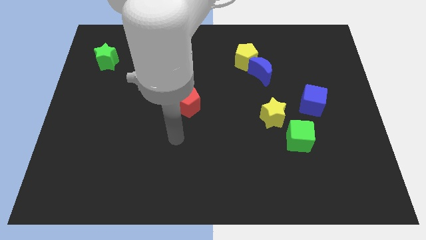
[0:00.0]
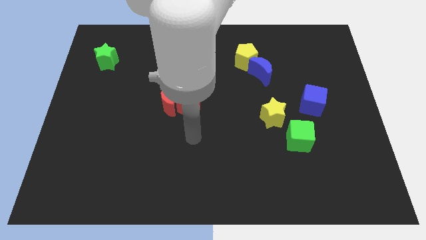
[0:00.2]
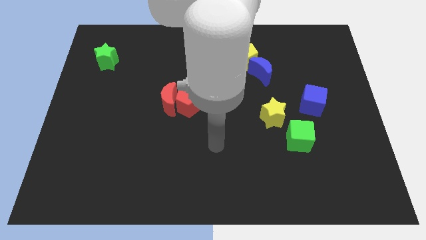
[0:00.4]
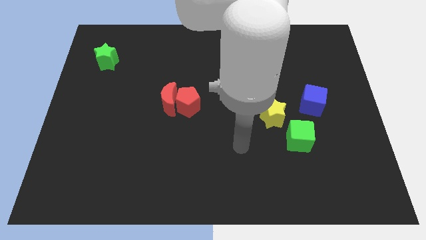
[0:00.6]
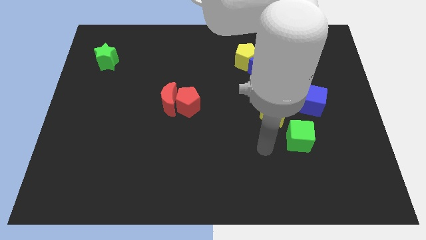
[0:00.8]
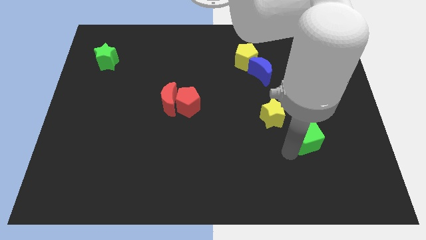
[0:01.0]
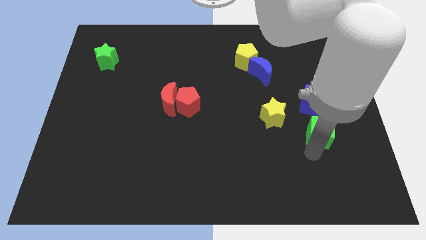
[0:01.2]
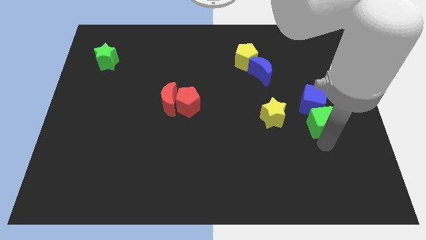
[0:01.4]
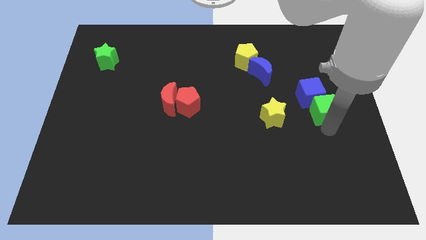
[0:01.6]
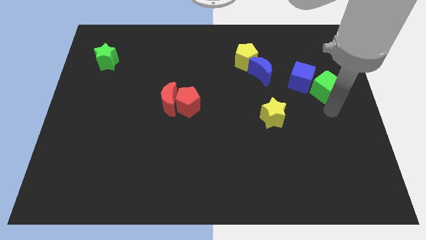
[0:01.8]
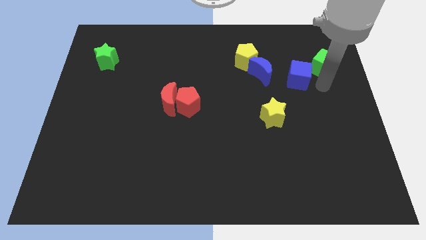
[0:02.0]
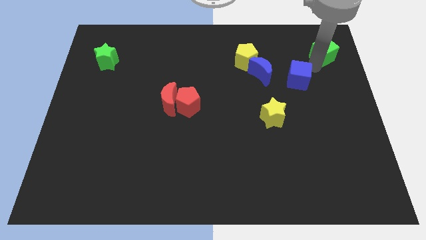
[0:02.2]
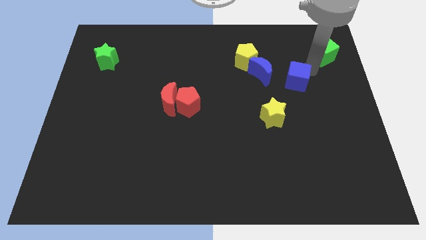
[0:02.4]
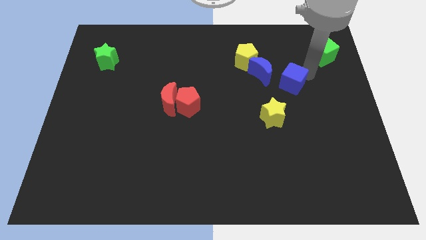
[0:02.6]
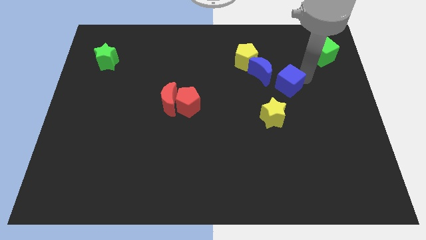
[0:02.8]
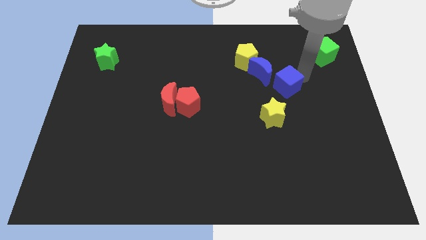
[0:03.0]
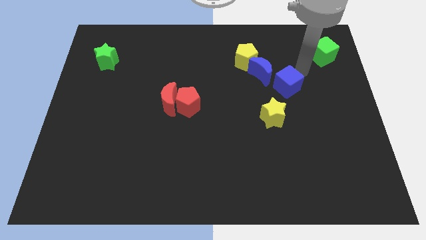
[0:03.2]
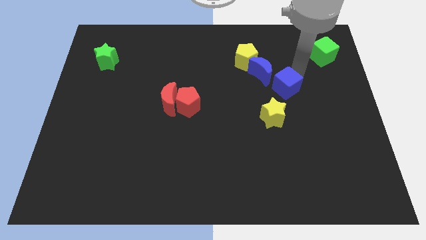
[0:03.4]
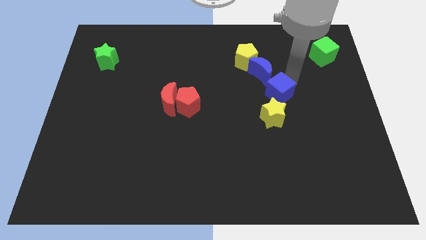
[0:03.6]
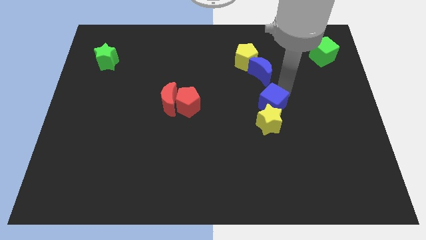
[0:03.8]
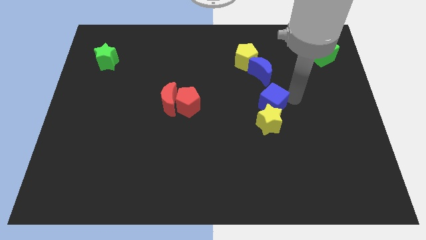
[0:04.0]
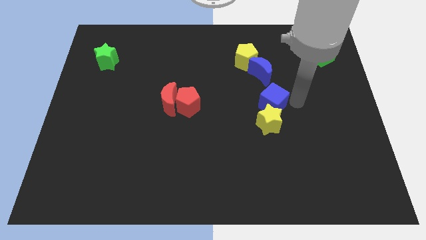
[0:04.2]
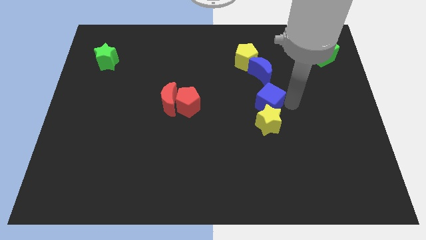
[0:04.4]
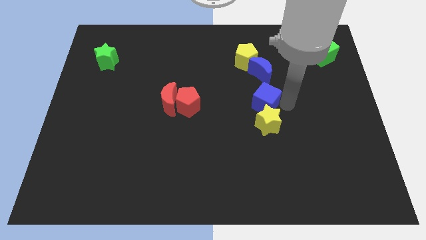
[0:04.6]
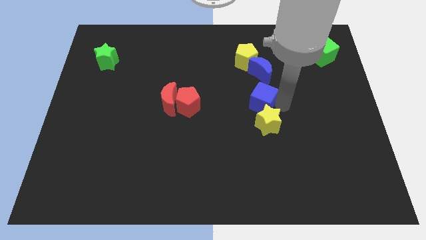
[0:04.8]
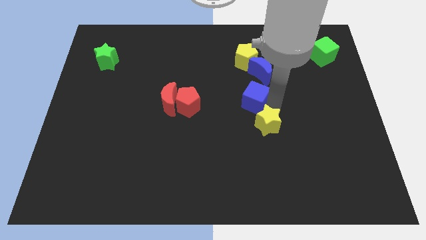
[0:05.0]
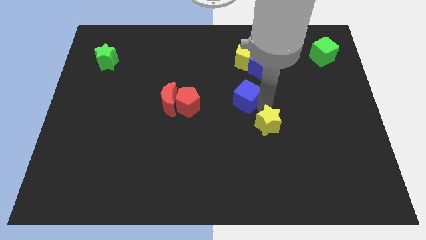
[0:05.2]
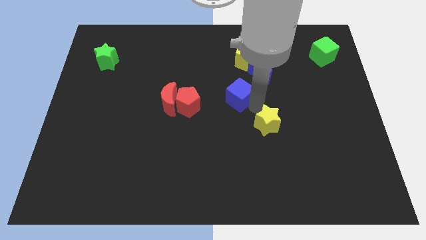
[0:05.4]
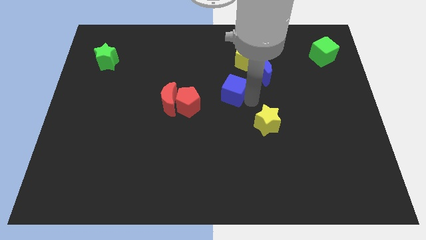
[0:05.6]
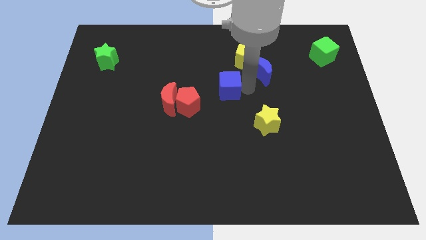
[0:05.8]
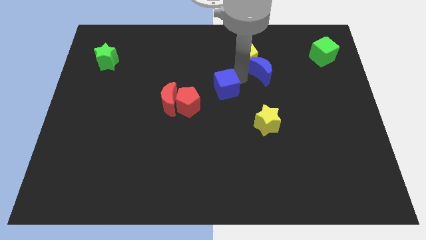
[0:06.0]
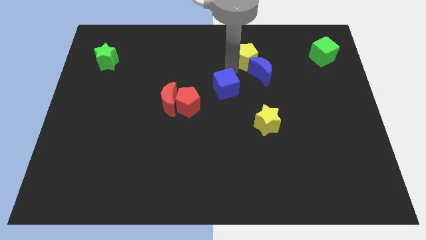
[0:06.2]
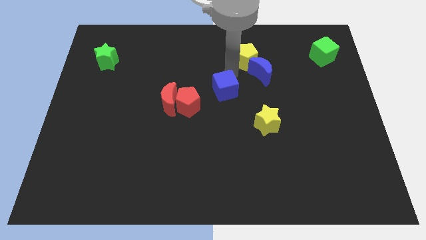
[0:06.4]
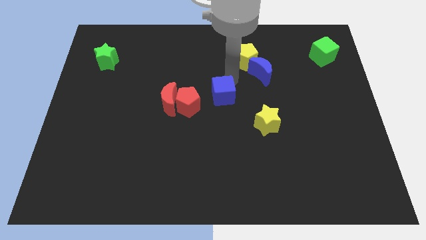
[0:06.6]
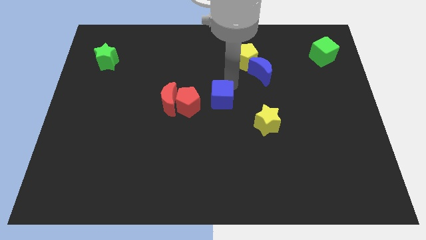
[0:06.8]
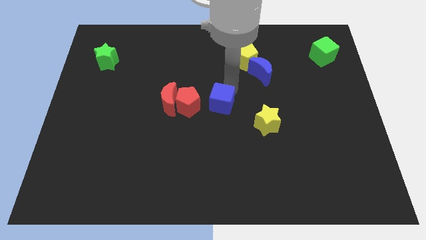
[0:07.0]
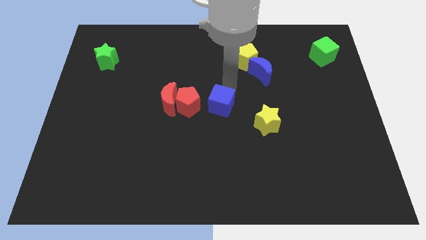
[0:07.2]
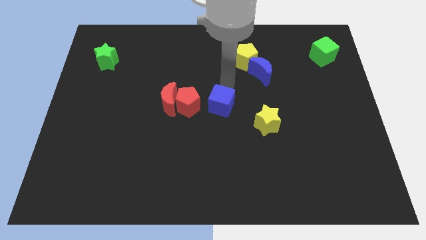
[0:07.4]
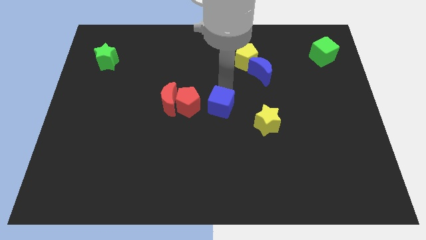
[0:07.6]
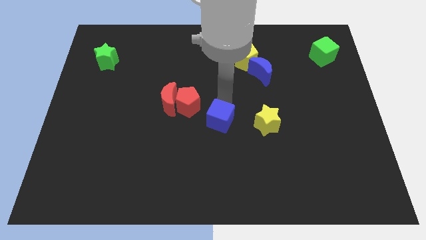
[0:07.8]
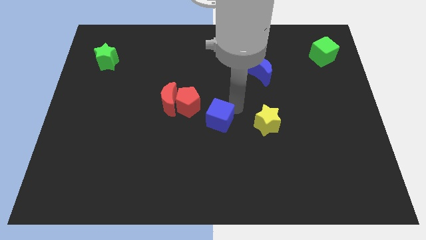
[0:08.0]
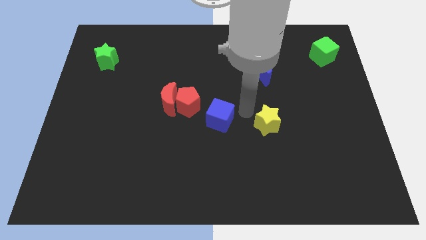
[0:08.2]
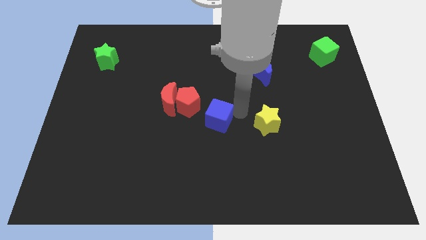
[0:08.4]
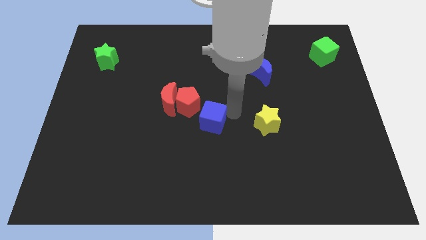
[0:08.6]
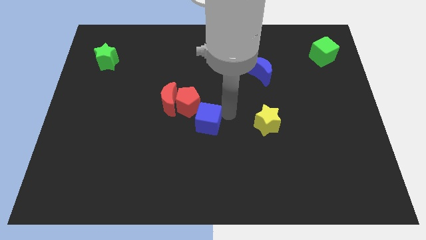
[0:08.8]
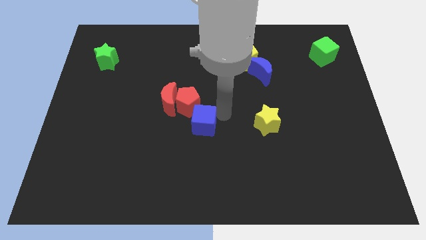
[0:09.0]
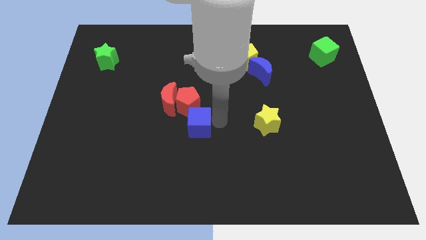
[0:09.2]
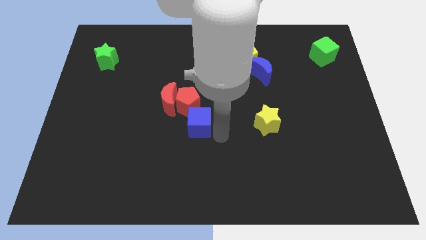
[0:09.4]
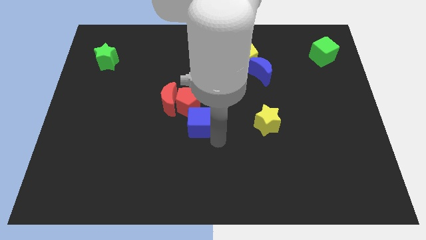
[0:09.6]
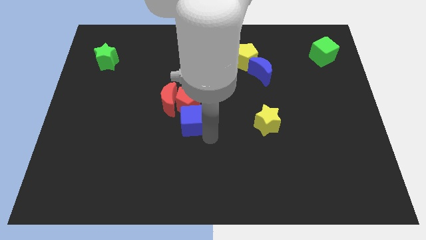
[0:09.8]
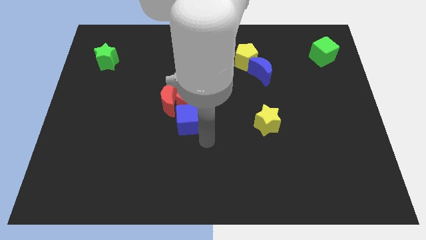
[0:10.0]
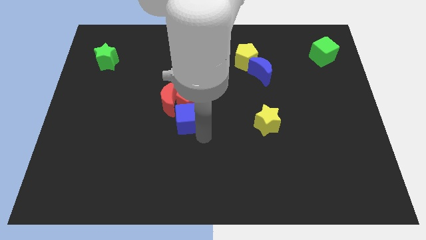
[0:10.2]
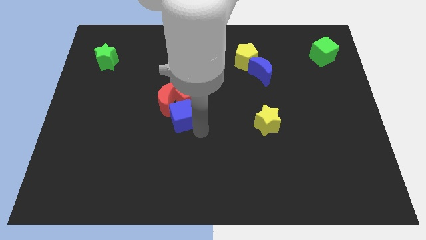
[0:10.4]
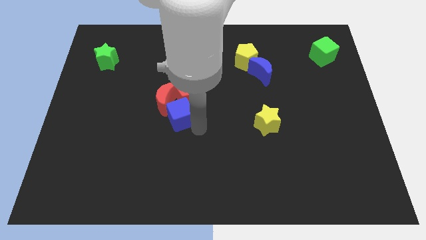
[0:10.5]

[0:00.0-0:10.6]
move the blue cube next to the red moon

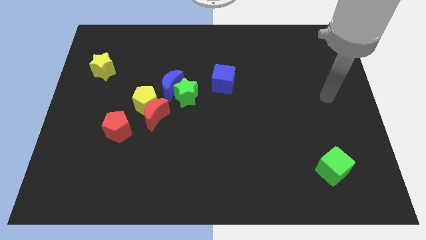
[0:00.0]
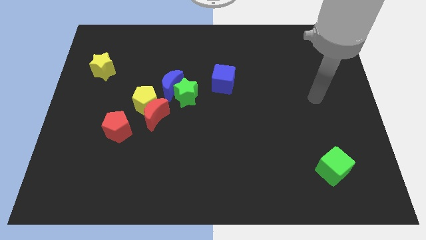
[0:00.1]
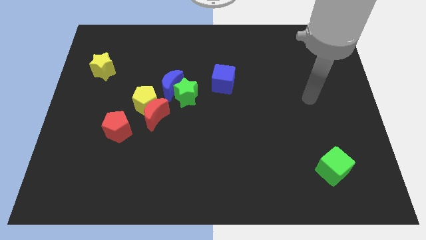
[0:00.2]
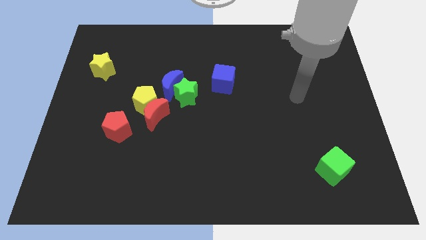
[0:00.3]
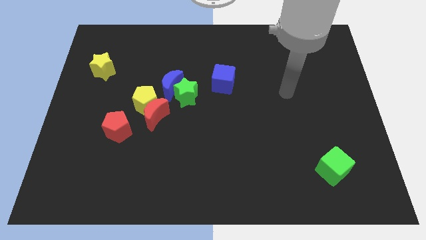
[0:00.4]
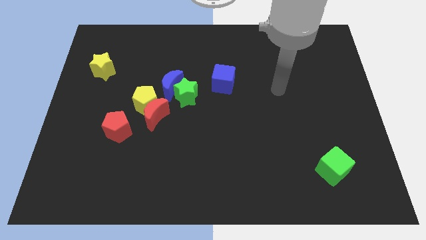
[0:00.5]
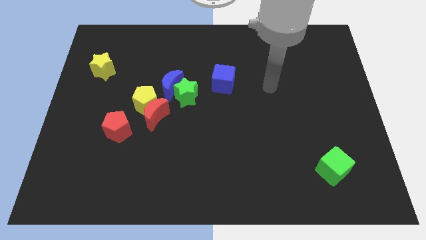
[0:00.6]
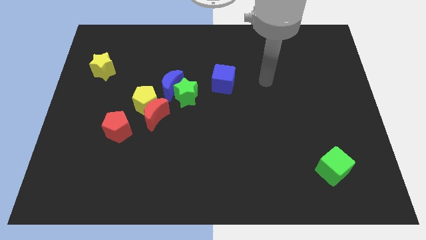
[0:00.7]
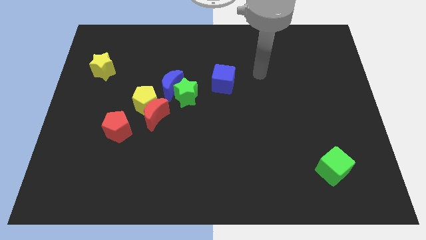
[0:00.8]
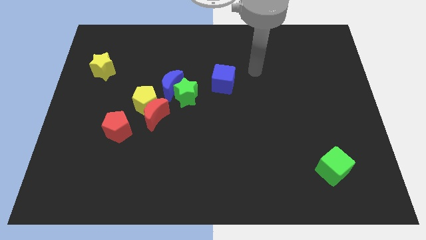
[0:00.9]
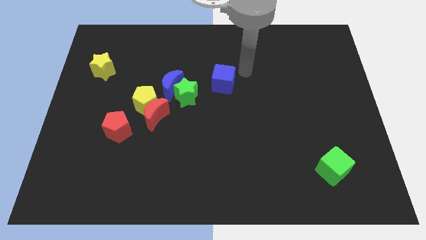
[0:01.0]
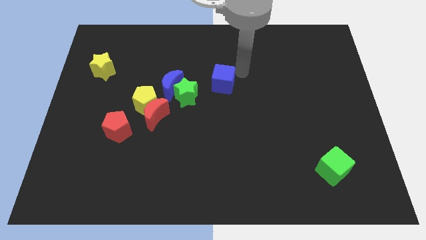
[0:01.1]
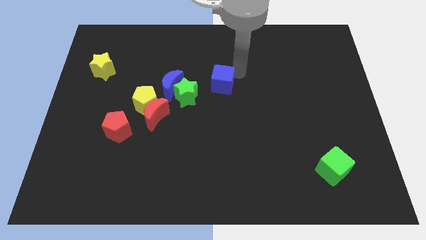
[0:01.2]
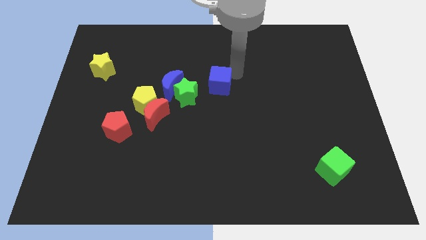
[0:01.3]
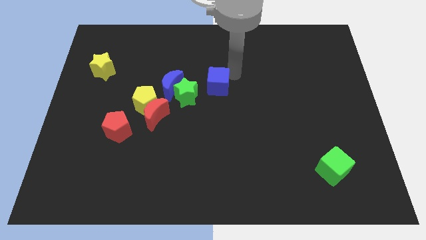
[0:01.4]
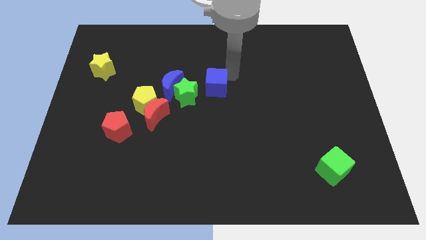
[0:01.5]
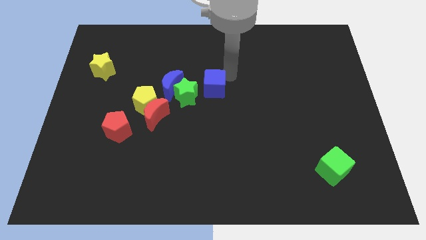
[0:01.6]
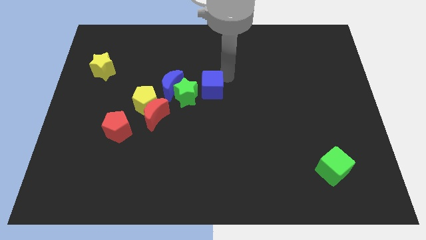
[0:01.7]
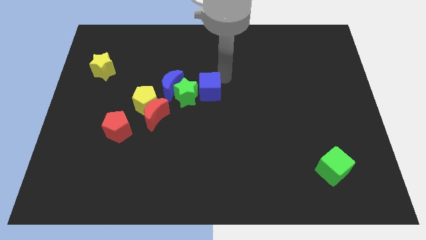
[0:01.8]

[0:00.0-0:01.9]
put the blue cube towards the green star
